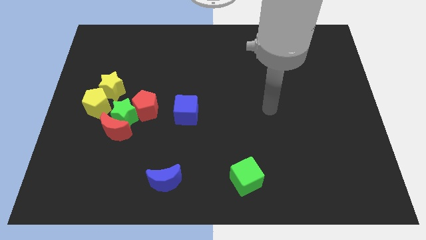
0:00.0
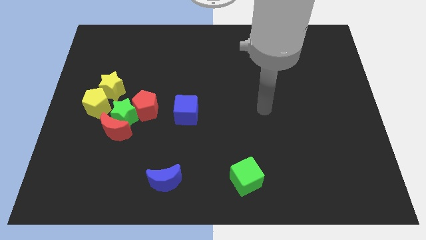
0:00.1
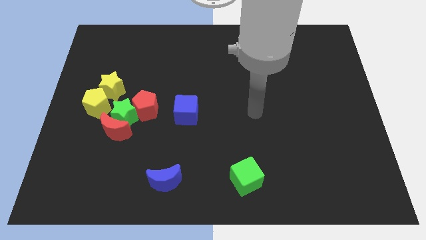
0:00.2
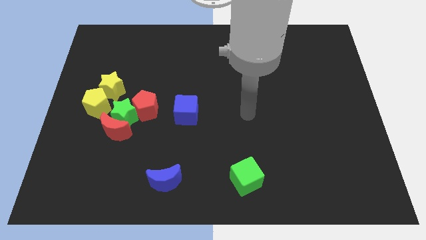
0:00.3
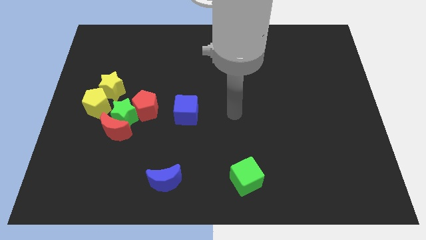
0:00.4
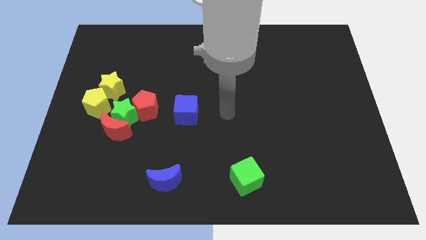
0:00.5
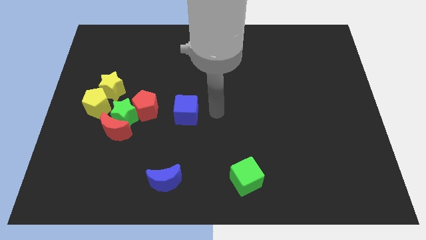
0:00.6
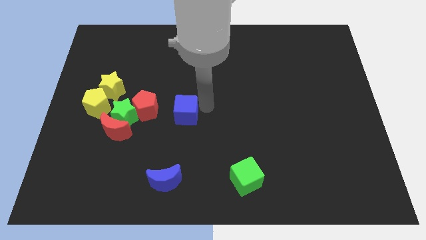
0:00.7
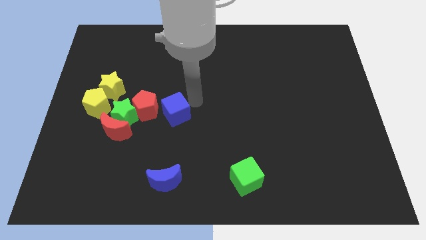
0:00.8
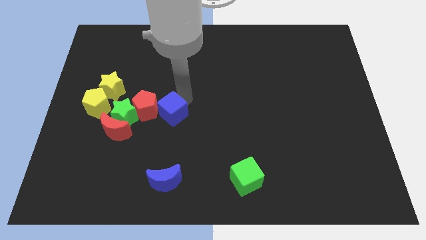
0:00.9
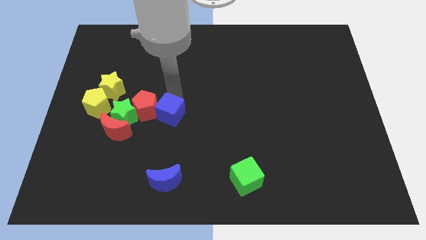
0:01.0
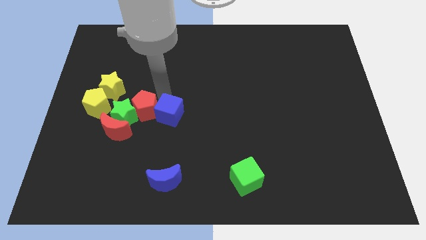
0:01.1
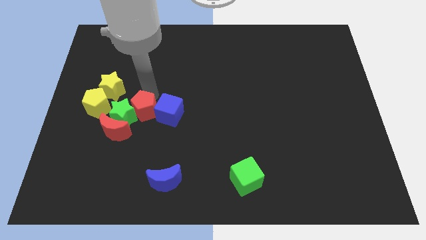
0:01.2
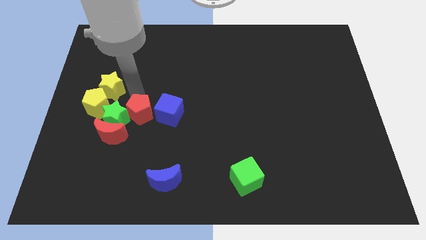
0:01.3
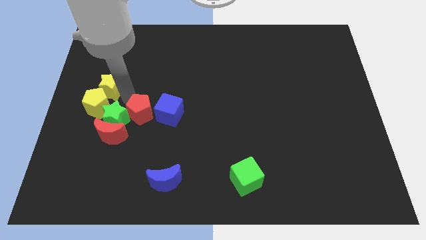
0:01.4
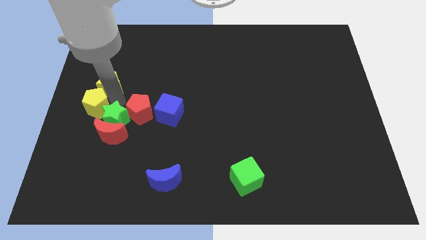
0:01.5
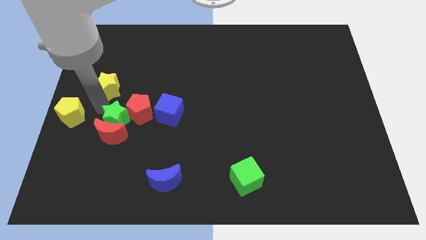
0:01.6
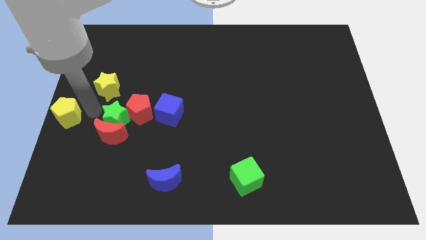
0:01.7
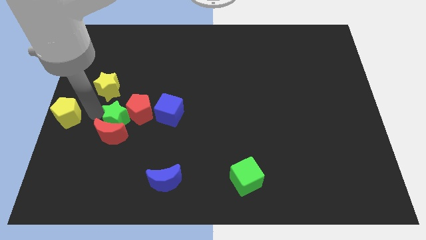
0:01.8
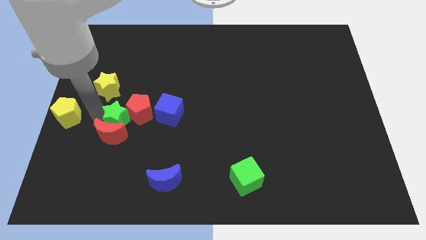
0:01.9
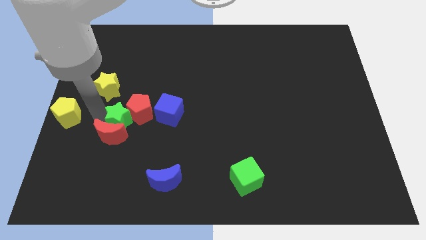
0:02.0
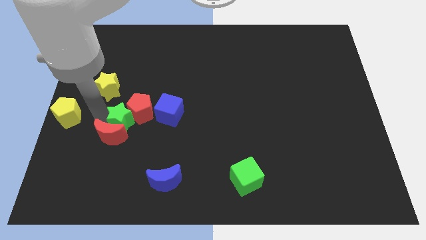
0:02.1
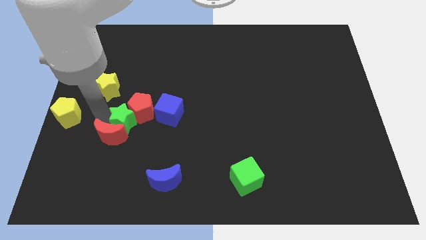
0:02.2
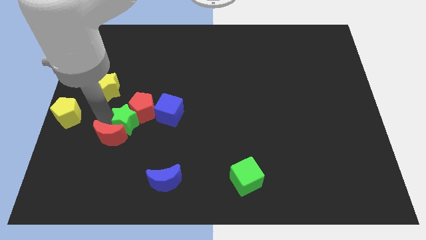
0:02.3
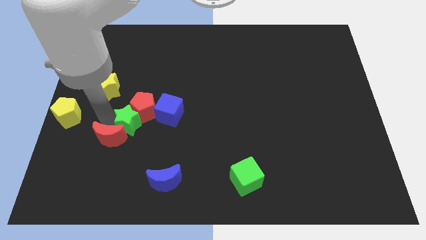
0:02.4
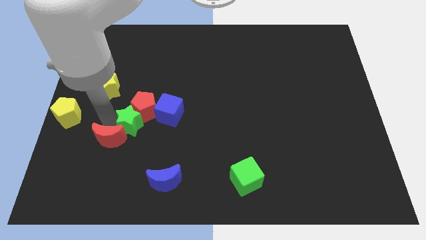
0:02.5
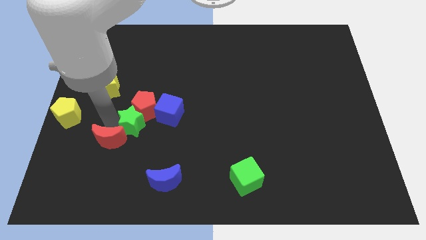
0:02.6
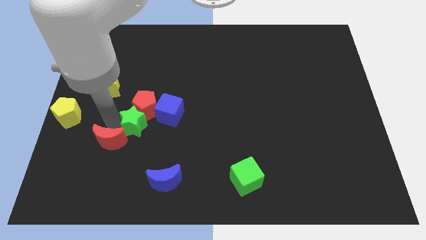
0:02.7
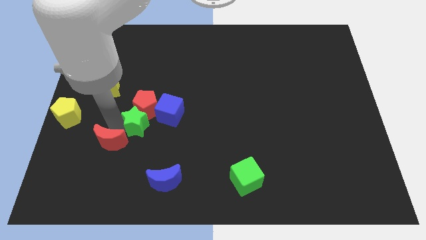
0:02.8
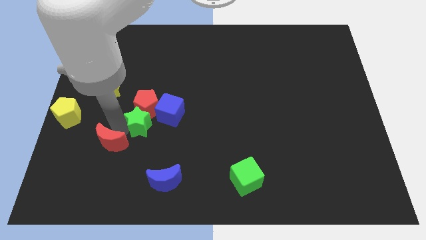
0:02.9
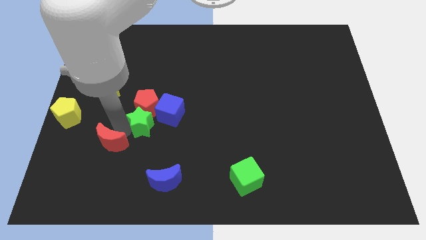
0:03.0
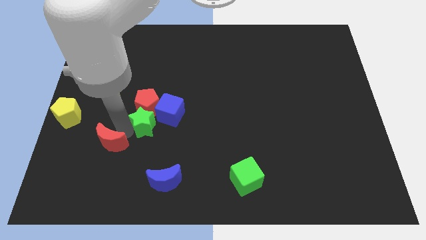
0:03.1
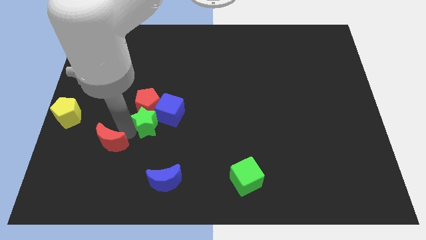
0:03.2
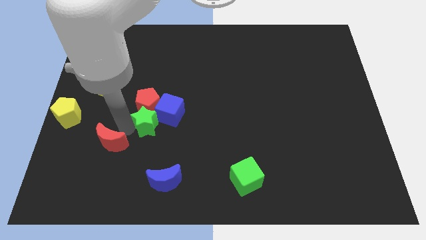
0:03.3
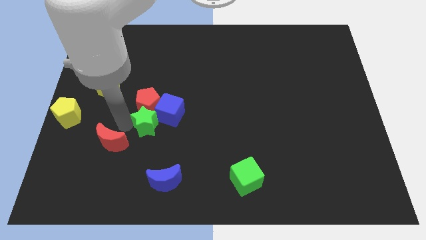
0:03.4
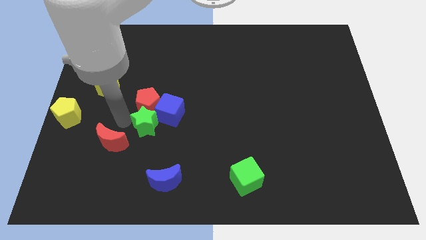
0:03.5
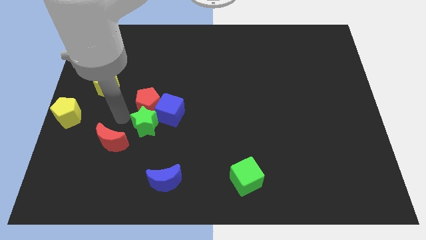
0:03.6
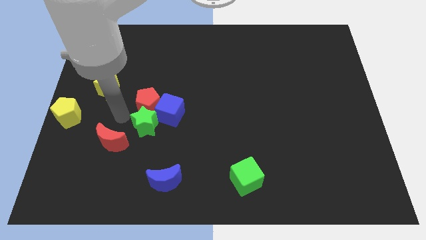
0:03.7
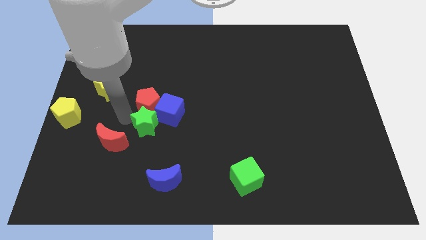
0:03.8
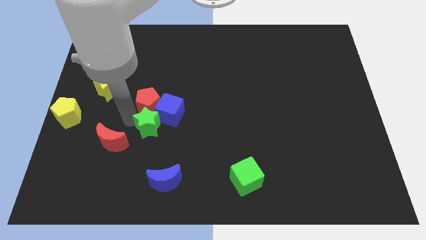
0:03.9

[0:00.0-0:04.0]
move the green star away from the group of blocks

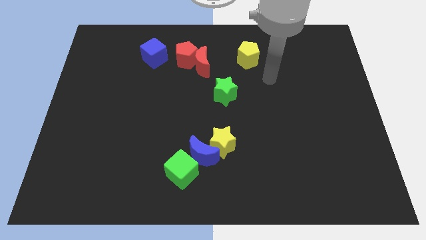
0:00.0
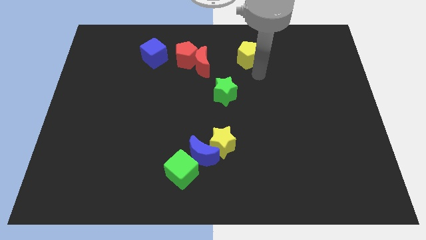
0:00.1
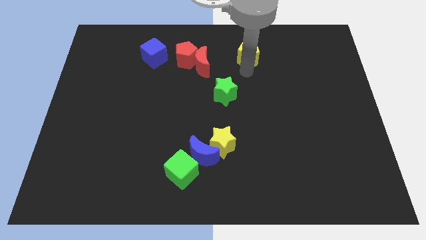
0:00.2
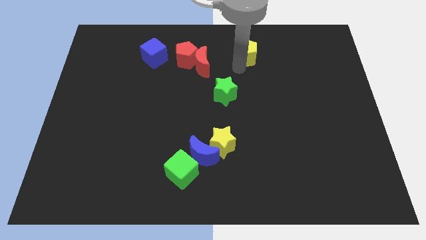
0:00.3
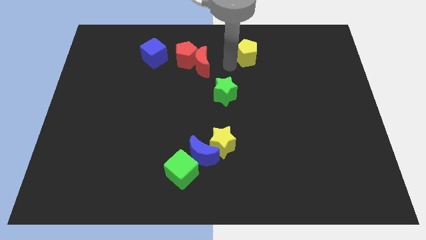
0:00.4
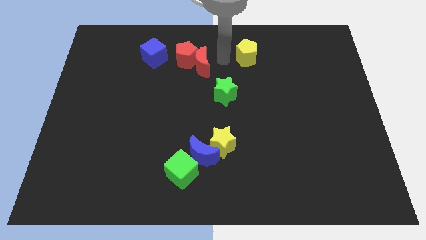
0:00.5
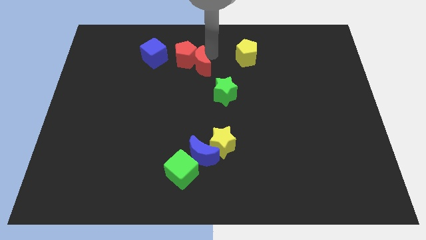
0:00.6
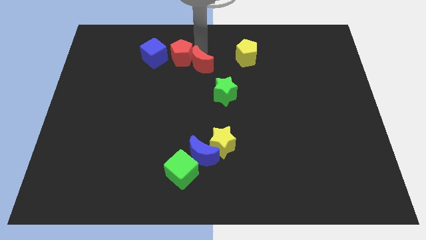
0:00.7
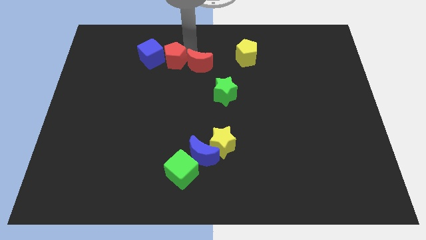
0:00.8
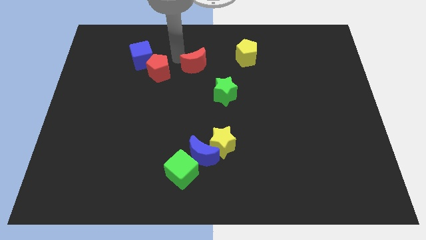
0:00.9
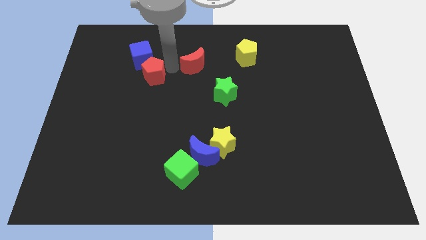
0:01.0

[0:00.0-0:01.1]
pull the red moon apart from the red pentagon

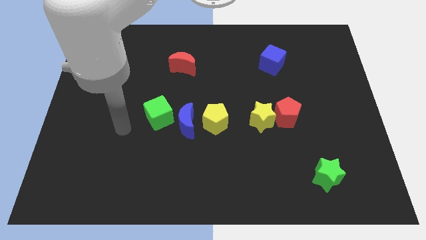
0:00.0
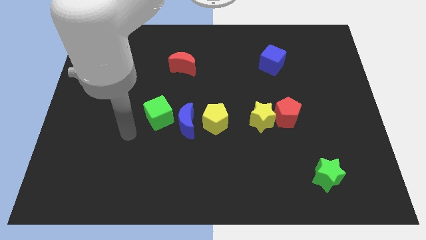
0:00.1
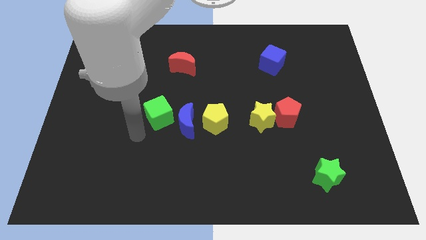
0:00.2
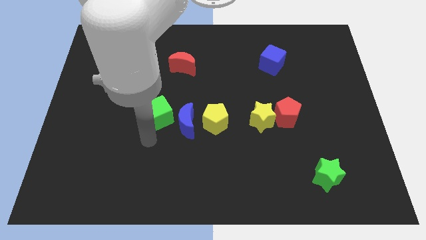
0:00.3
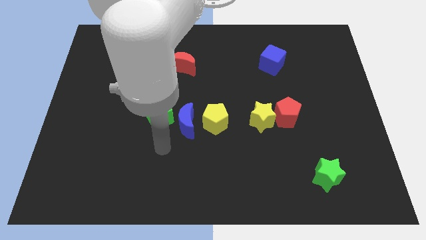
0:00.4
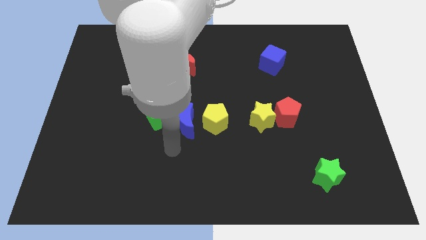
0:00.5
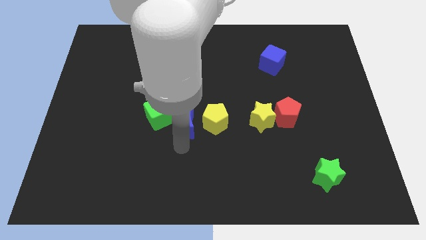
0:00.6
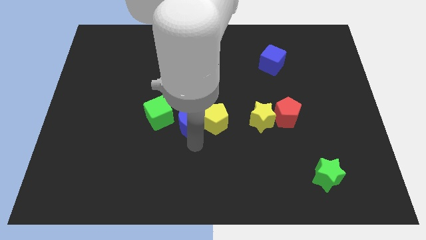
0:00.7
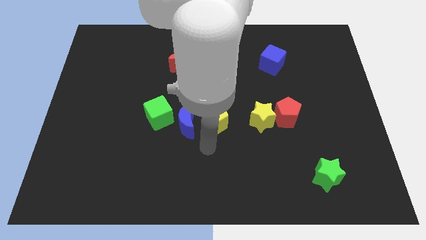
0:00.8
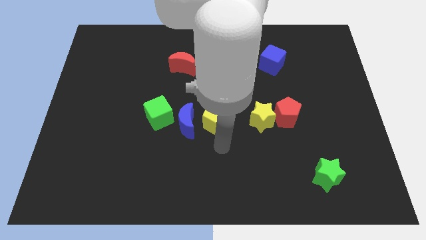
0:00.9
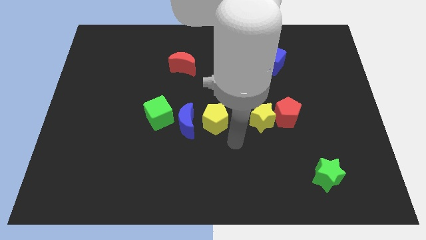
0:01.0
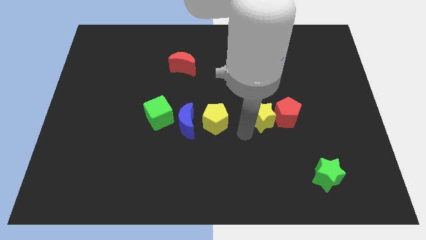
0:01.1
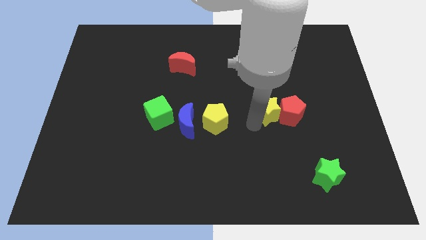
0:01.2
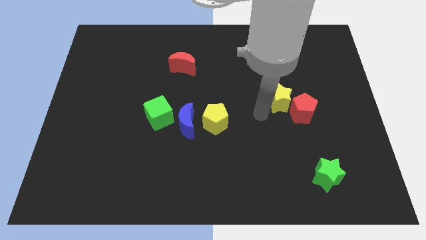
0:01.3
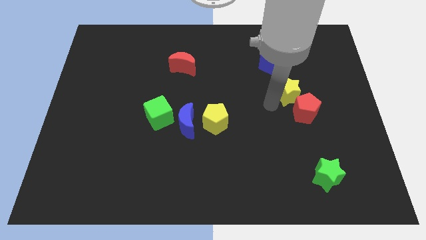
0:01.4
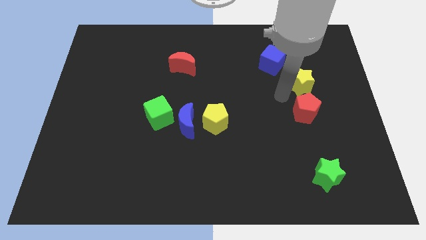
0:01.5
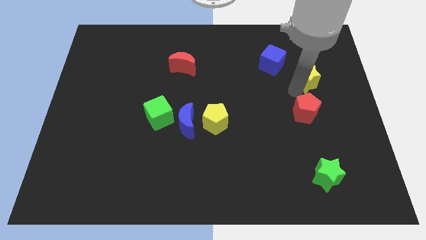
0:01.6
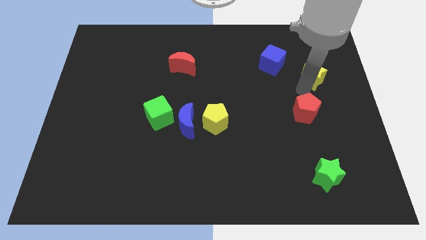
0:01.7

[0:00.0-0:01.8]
pull the red pentagon apart from the yellow star

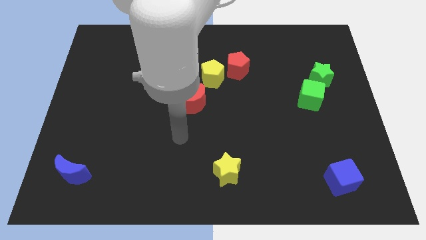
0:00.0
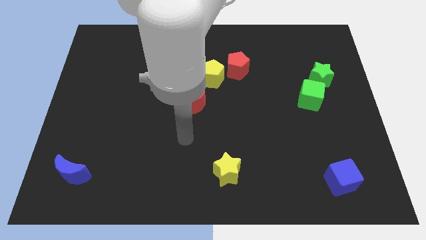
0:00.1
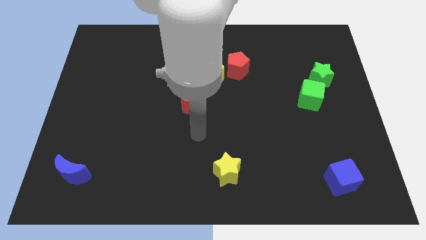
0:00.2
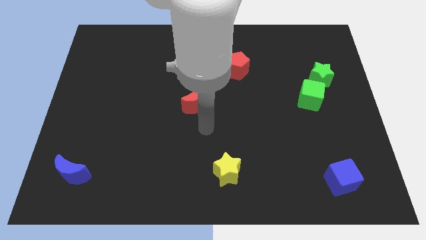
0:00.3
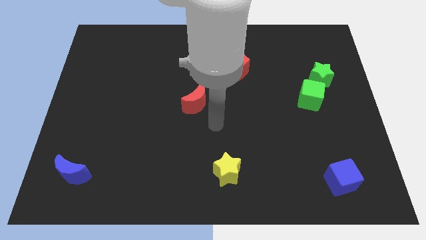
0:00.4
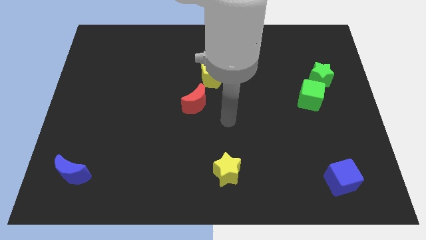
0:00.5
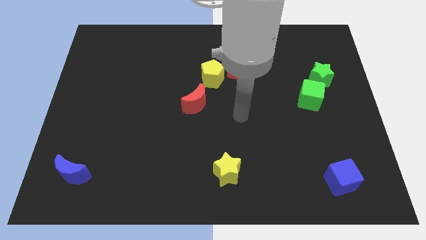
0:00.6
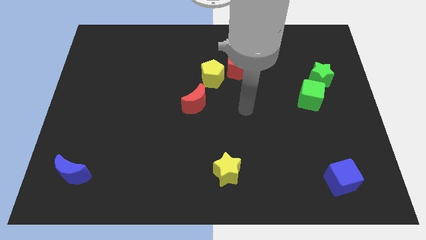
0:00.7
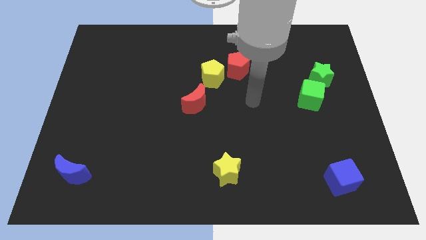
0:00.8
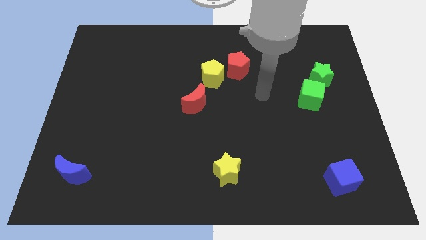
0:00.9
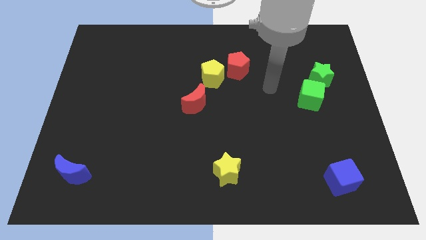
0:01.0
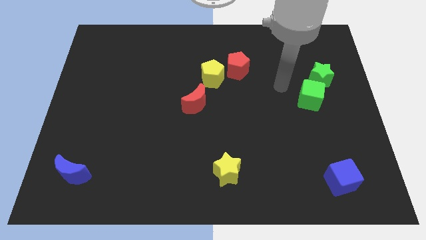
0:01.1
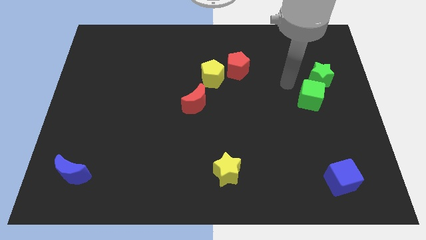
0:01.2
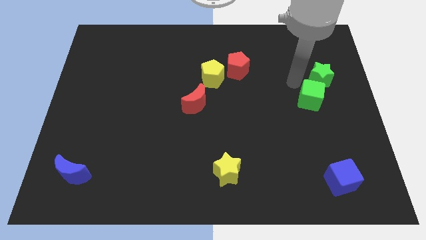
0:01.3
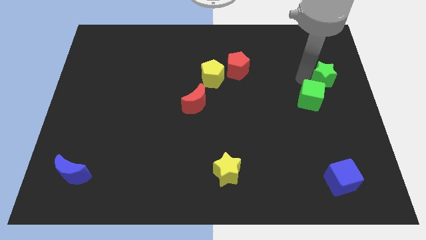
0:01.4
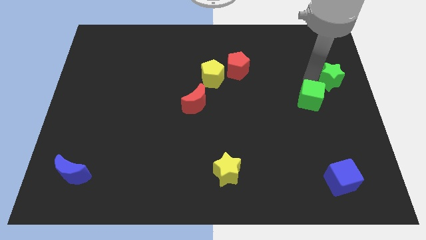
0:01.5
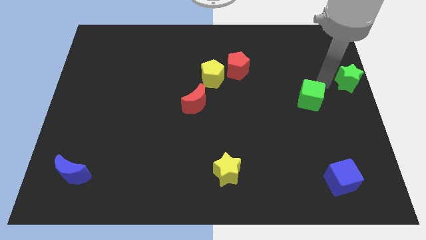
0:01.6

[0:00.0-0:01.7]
move the green cube away from the green star

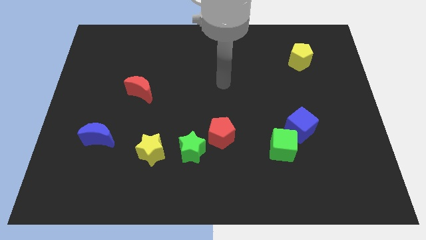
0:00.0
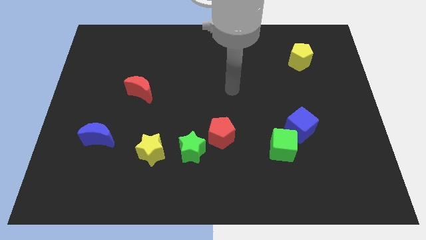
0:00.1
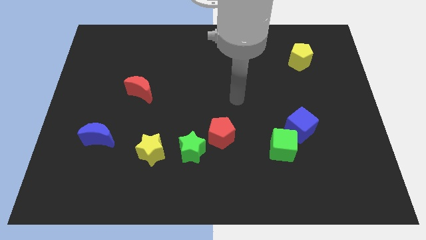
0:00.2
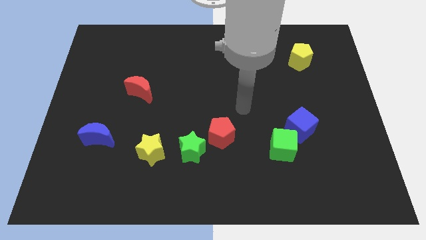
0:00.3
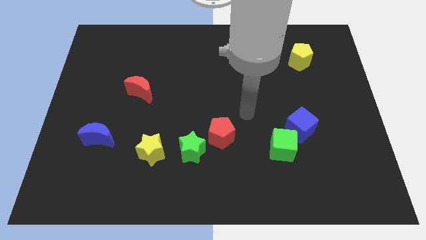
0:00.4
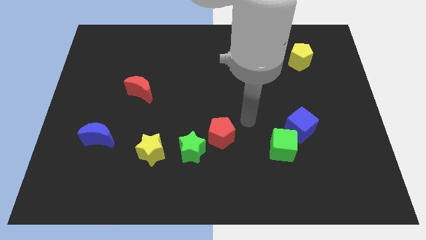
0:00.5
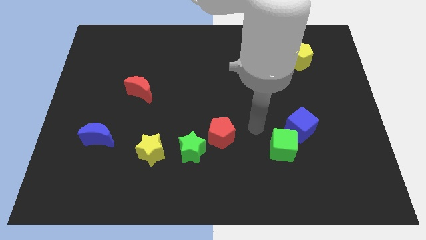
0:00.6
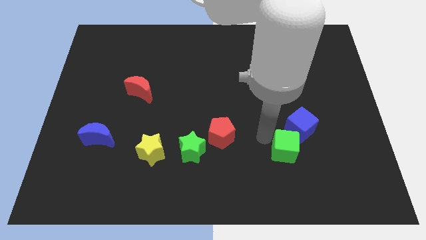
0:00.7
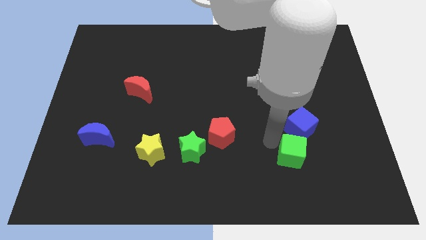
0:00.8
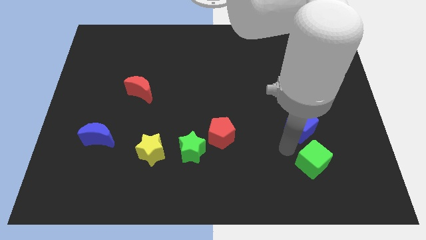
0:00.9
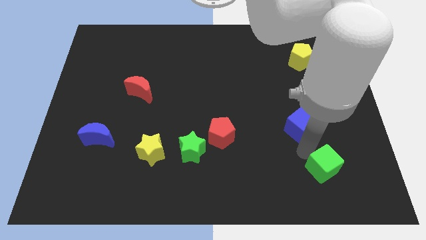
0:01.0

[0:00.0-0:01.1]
move the blue cube away from the green cube
